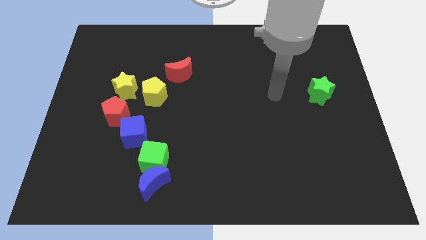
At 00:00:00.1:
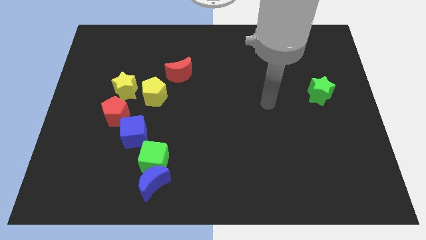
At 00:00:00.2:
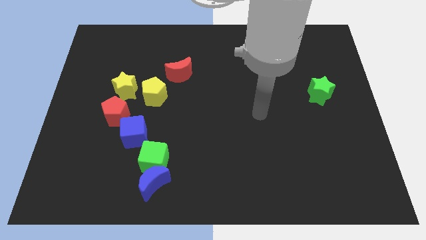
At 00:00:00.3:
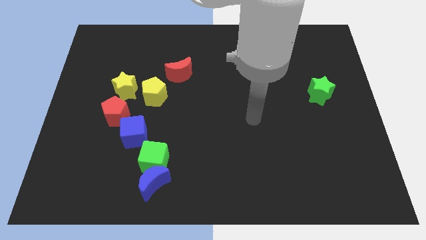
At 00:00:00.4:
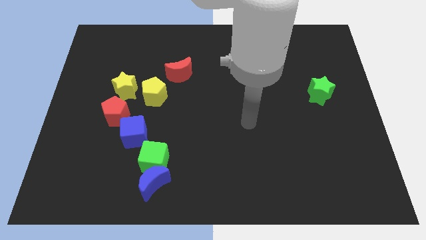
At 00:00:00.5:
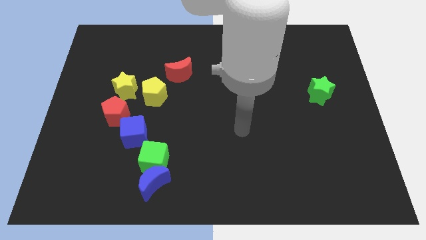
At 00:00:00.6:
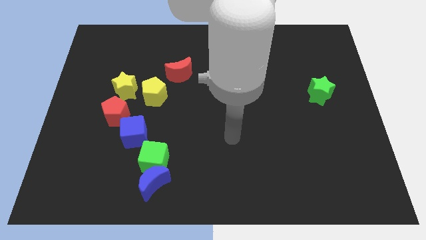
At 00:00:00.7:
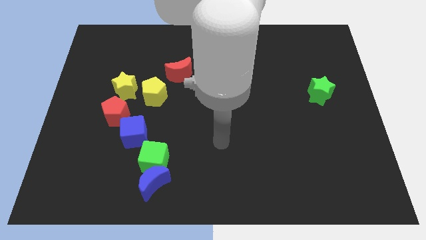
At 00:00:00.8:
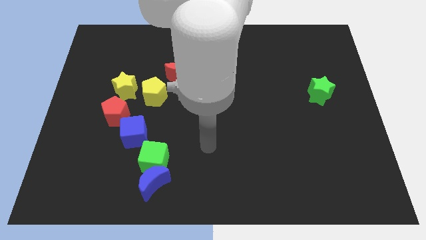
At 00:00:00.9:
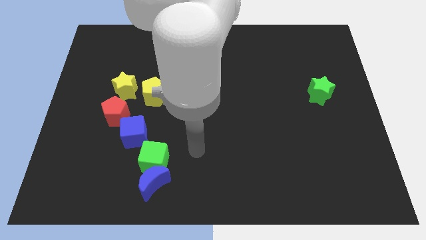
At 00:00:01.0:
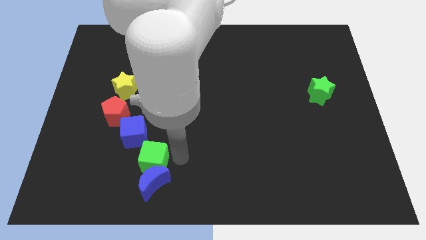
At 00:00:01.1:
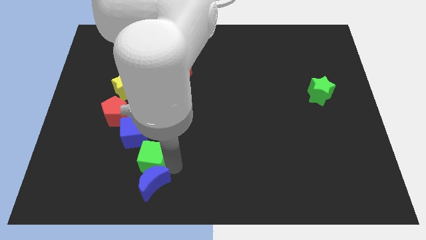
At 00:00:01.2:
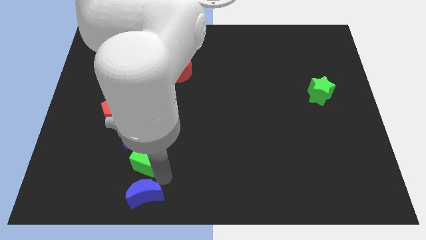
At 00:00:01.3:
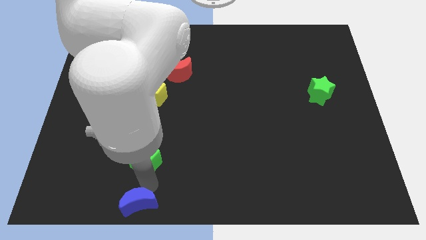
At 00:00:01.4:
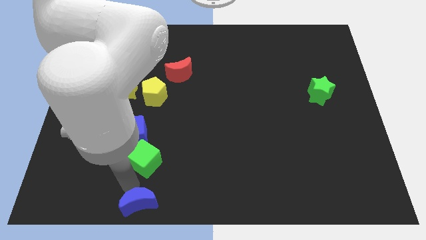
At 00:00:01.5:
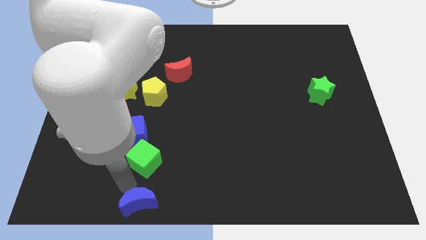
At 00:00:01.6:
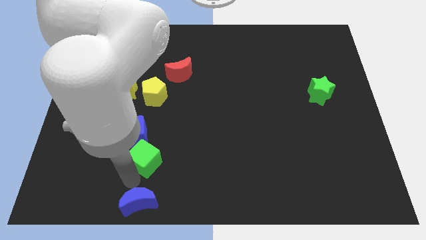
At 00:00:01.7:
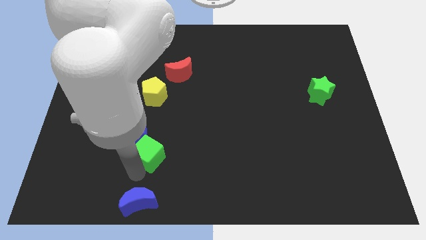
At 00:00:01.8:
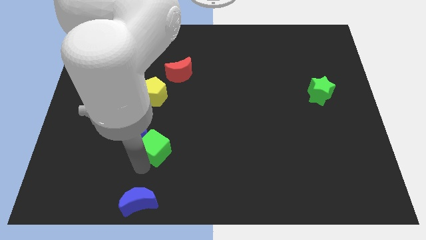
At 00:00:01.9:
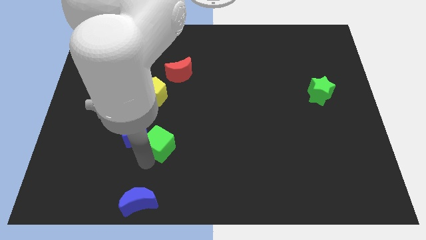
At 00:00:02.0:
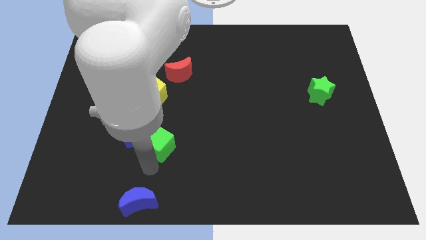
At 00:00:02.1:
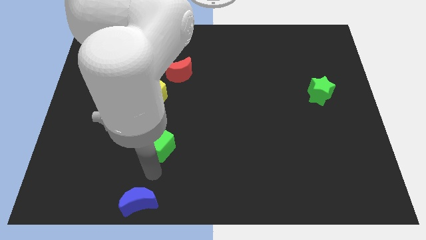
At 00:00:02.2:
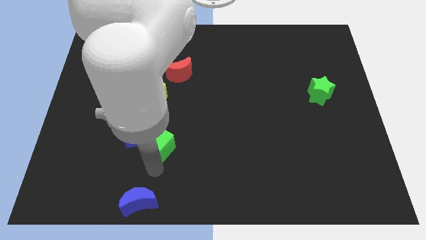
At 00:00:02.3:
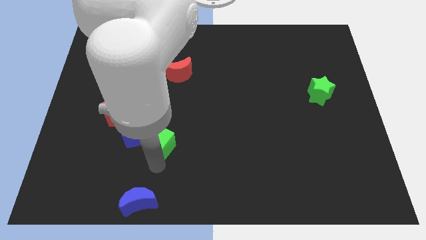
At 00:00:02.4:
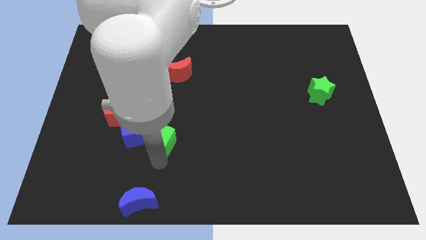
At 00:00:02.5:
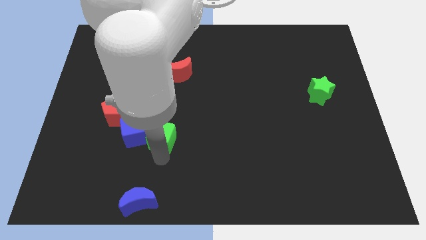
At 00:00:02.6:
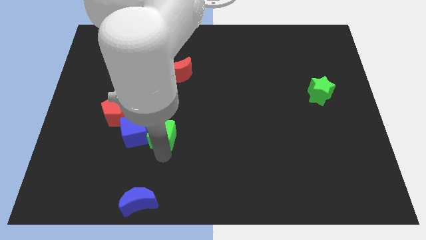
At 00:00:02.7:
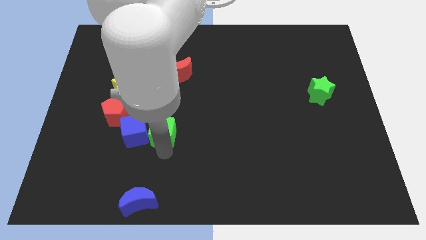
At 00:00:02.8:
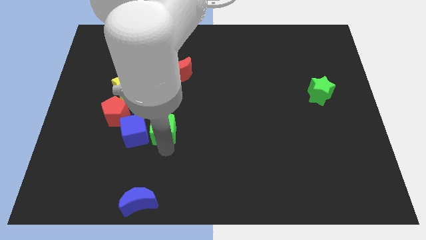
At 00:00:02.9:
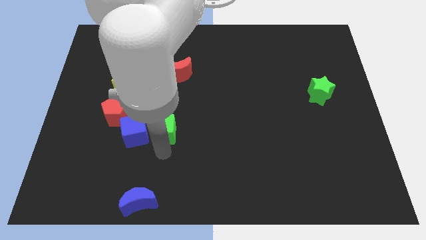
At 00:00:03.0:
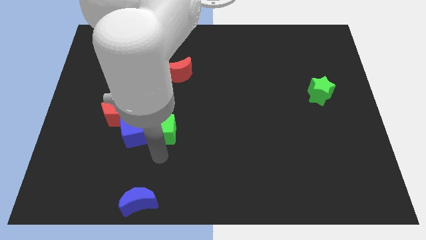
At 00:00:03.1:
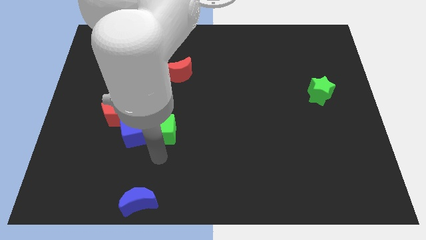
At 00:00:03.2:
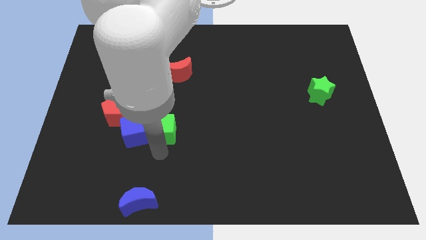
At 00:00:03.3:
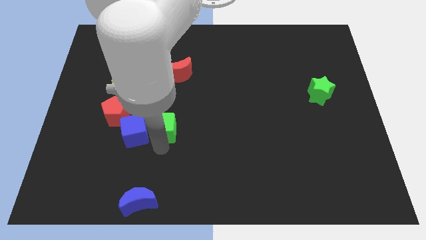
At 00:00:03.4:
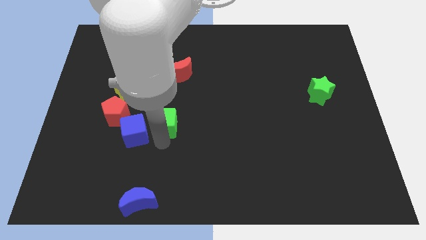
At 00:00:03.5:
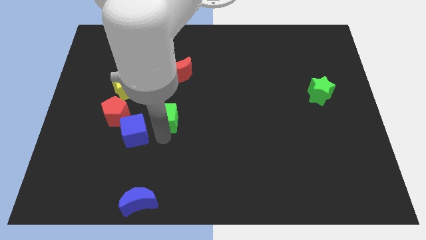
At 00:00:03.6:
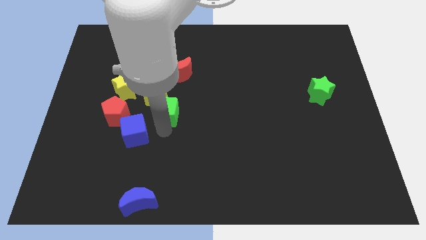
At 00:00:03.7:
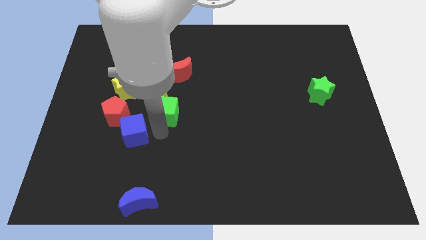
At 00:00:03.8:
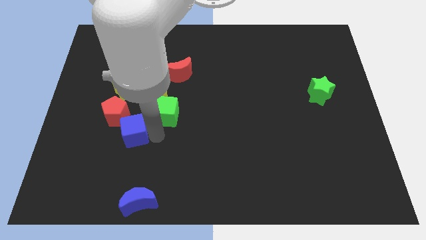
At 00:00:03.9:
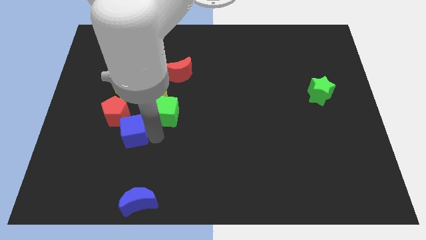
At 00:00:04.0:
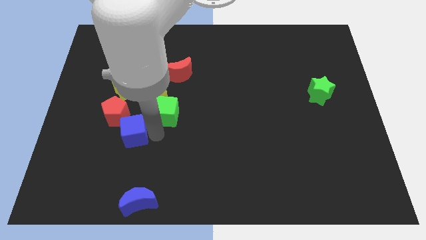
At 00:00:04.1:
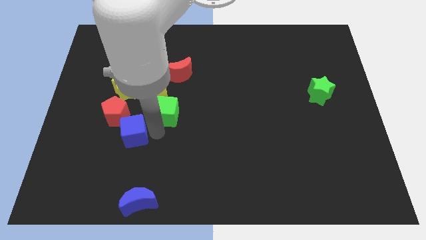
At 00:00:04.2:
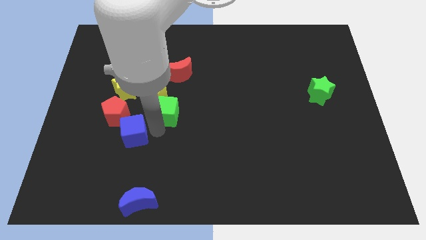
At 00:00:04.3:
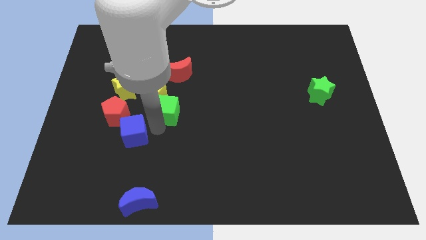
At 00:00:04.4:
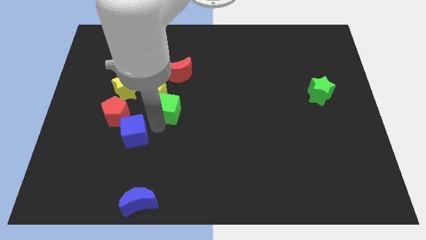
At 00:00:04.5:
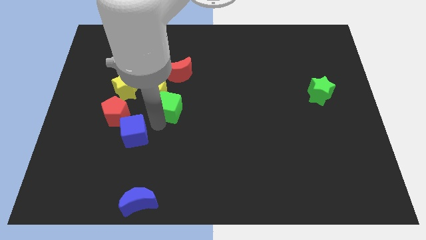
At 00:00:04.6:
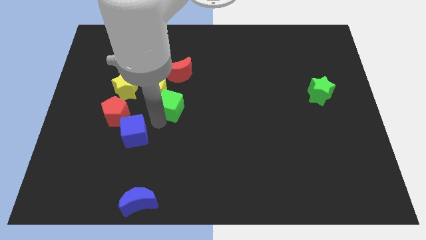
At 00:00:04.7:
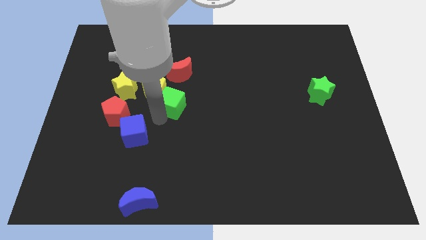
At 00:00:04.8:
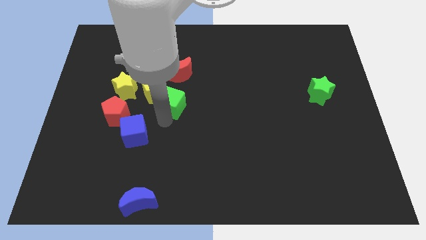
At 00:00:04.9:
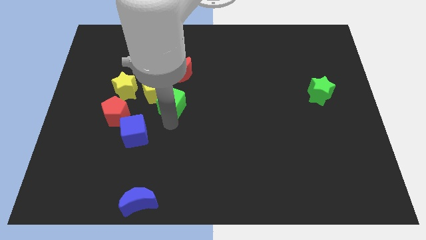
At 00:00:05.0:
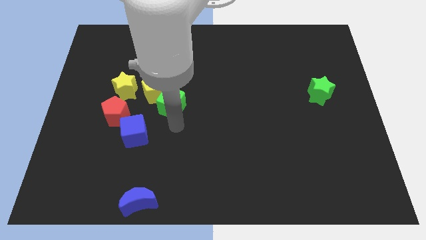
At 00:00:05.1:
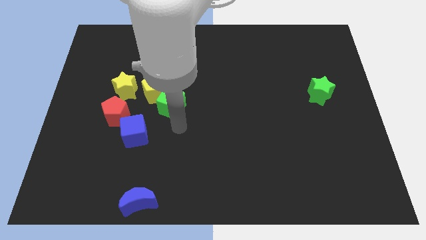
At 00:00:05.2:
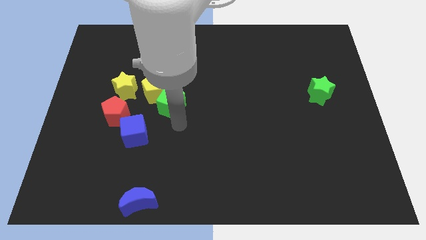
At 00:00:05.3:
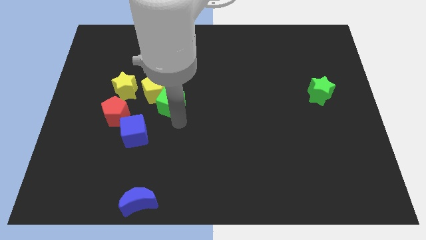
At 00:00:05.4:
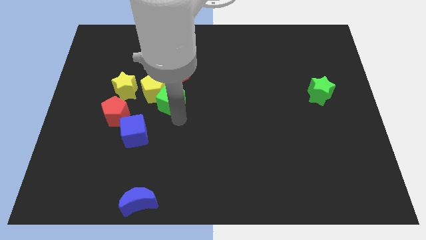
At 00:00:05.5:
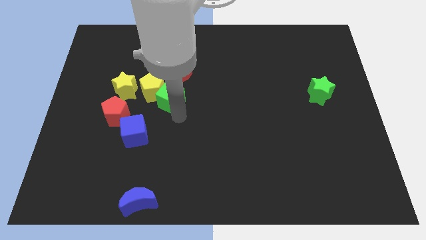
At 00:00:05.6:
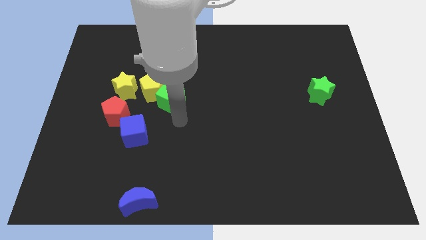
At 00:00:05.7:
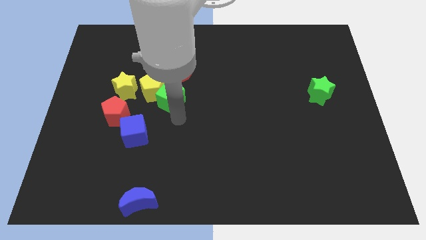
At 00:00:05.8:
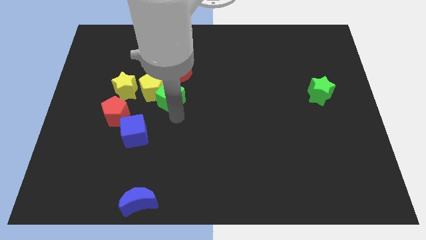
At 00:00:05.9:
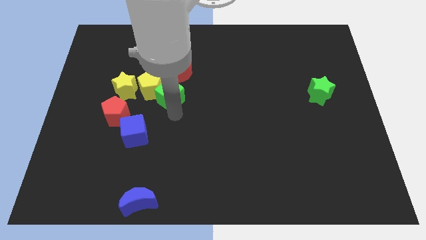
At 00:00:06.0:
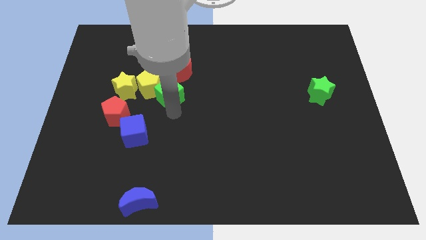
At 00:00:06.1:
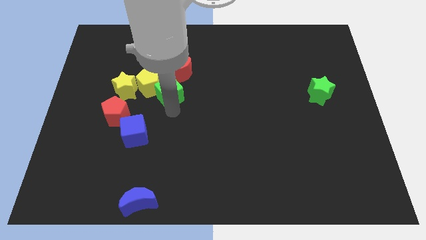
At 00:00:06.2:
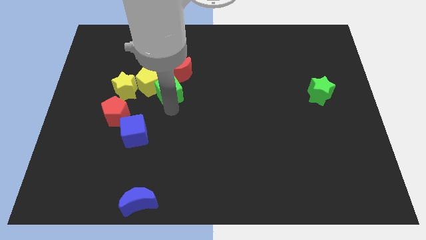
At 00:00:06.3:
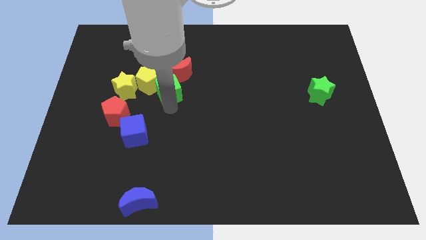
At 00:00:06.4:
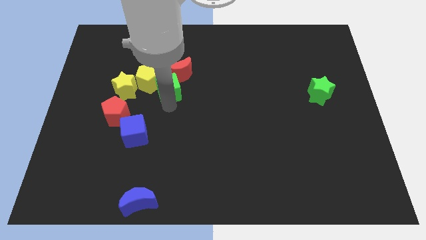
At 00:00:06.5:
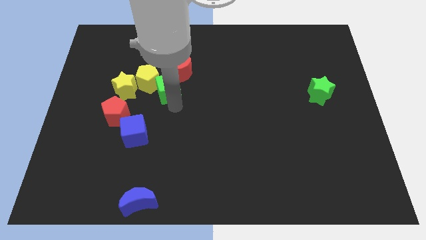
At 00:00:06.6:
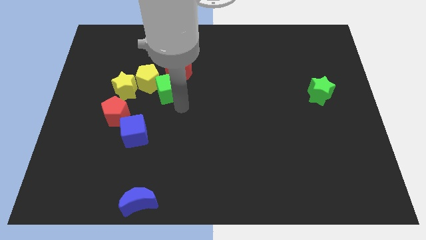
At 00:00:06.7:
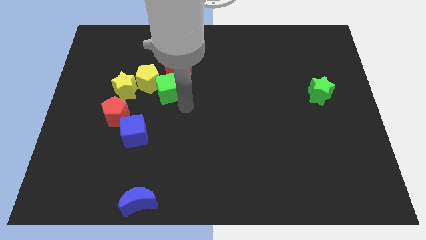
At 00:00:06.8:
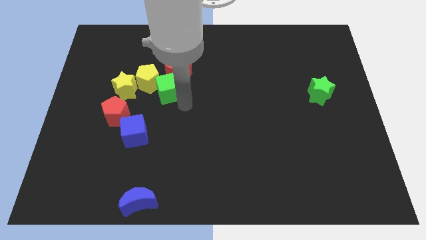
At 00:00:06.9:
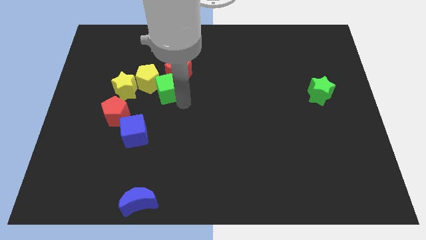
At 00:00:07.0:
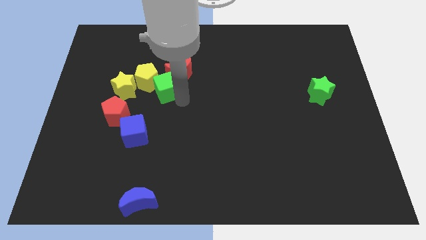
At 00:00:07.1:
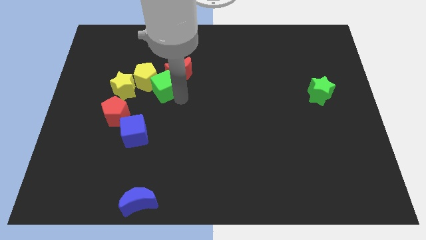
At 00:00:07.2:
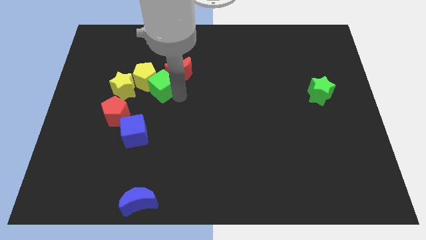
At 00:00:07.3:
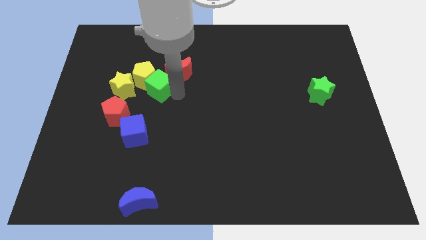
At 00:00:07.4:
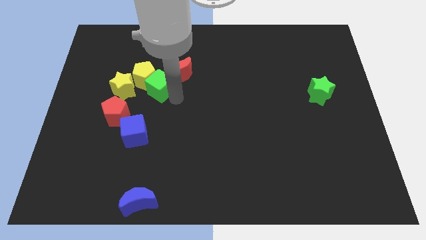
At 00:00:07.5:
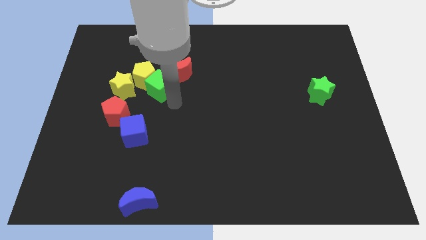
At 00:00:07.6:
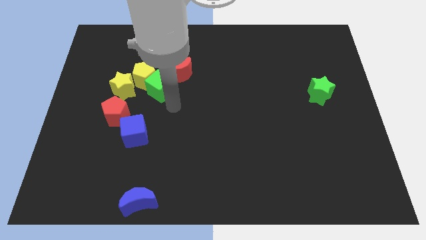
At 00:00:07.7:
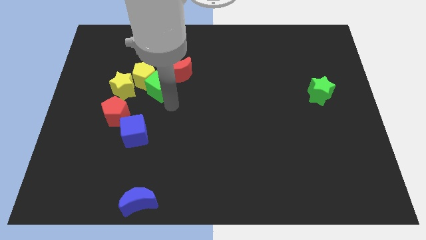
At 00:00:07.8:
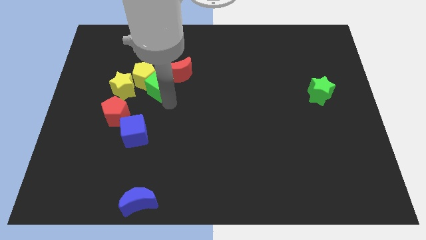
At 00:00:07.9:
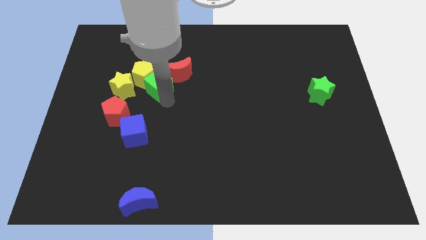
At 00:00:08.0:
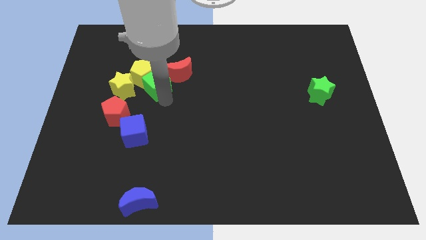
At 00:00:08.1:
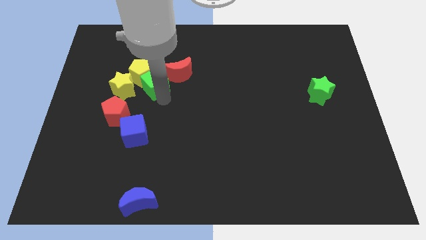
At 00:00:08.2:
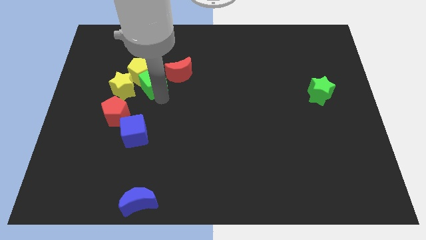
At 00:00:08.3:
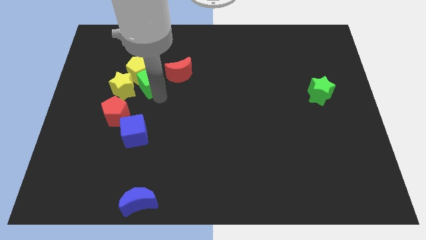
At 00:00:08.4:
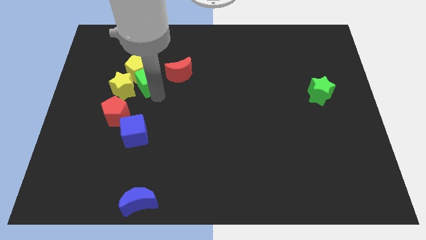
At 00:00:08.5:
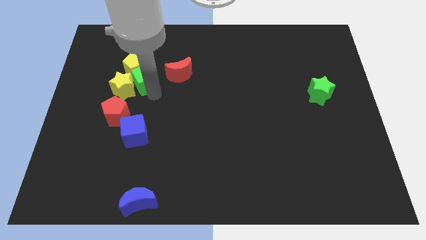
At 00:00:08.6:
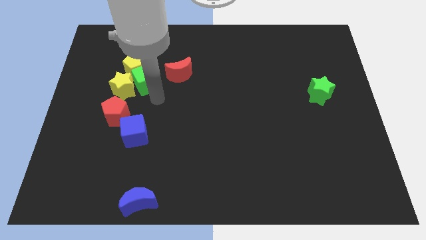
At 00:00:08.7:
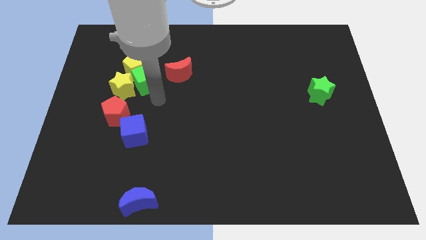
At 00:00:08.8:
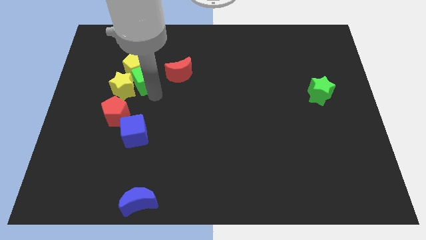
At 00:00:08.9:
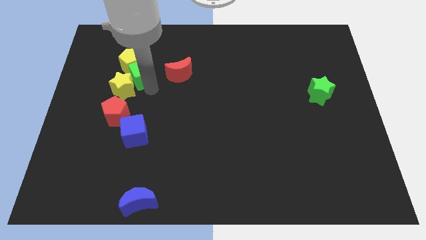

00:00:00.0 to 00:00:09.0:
move the green cube to the top side of the yellow star
